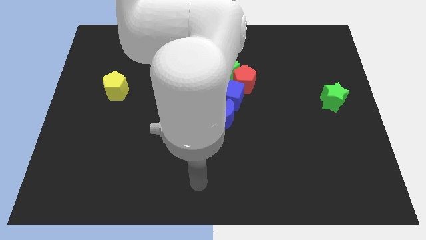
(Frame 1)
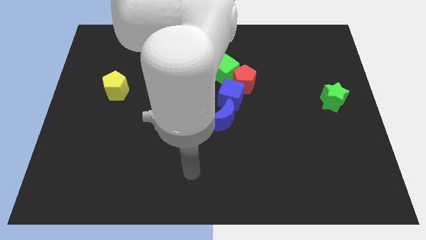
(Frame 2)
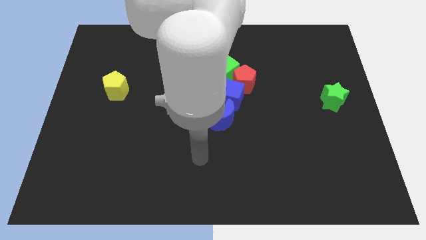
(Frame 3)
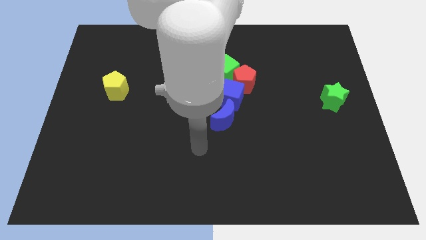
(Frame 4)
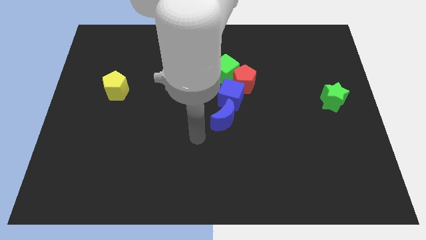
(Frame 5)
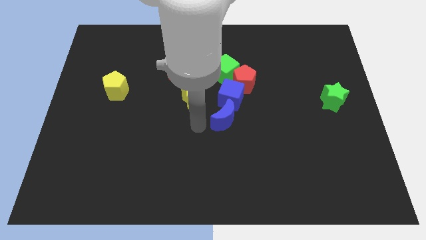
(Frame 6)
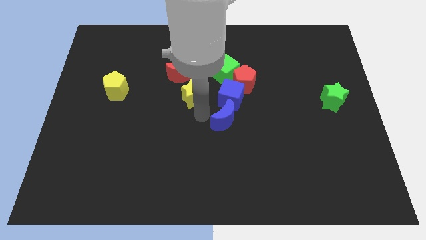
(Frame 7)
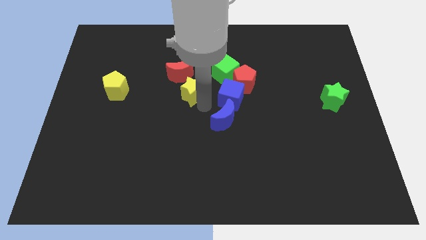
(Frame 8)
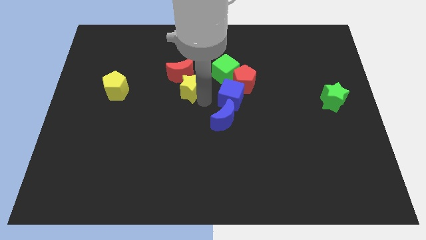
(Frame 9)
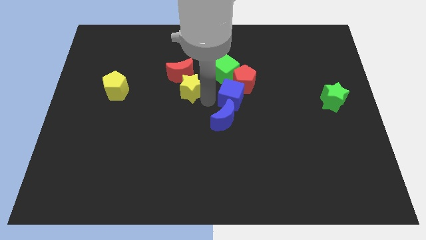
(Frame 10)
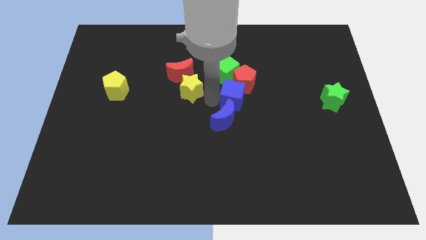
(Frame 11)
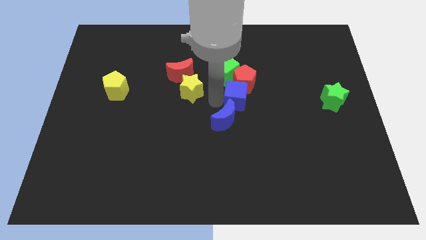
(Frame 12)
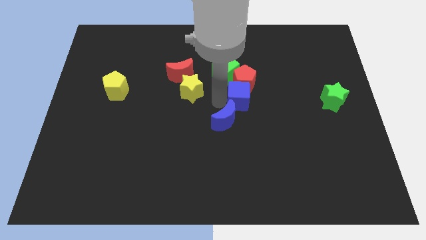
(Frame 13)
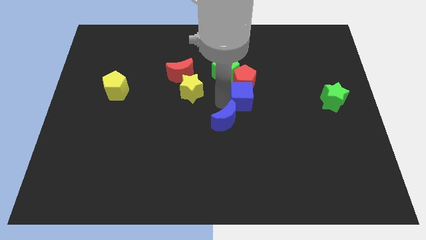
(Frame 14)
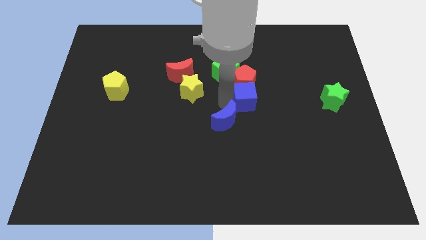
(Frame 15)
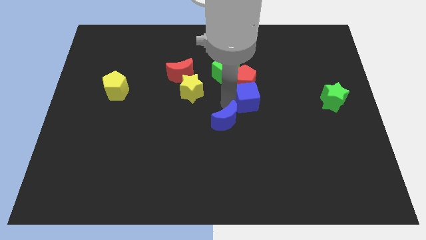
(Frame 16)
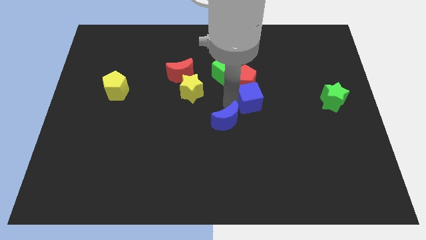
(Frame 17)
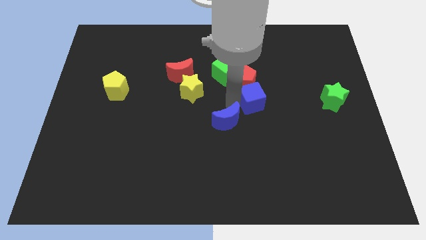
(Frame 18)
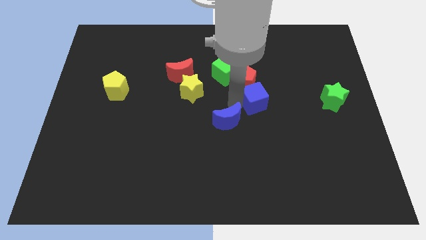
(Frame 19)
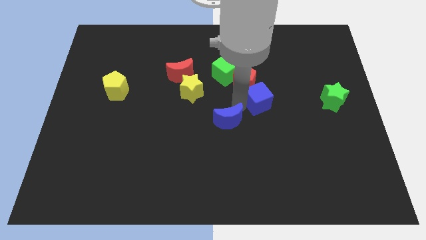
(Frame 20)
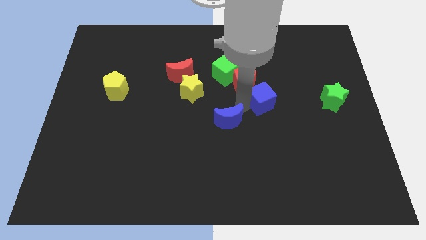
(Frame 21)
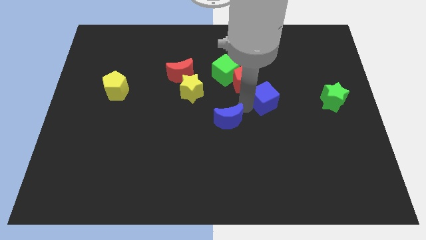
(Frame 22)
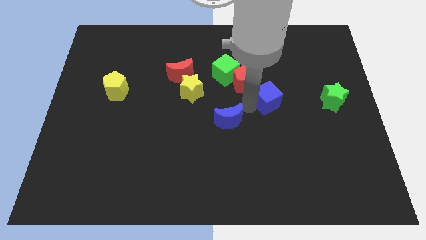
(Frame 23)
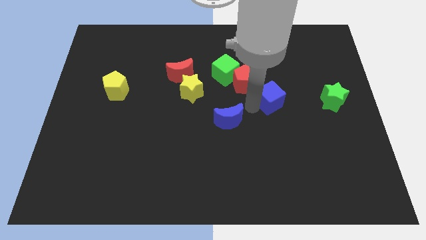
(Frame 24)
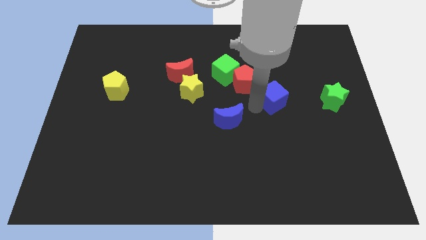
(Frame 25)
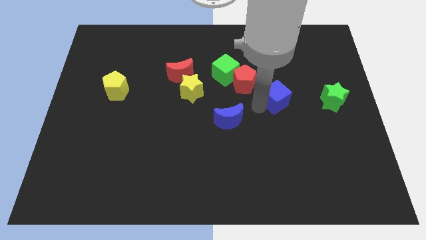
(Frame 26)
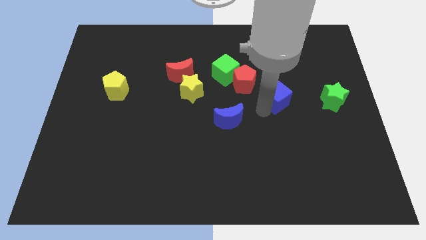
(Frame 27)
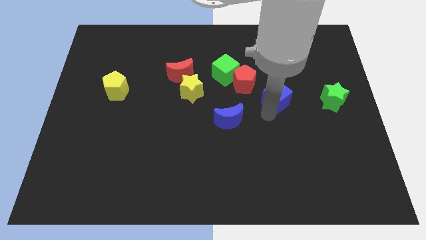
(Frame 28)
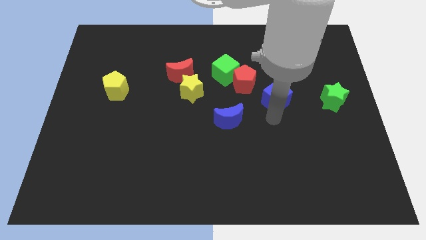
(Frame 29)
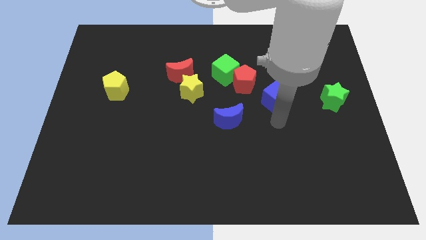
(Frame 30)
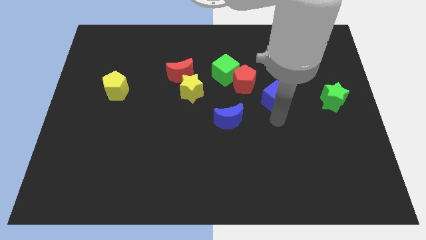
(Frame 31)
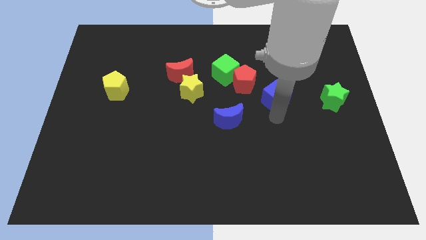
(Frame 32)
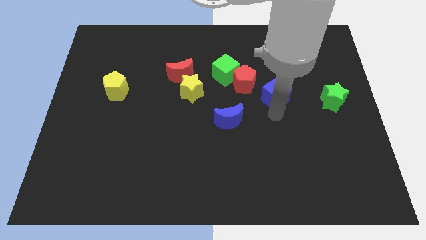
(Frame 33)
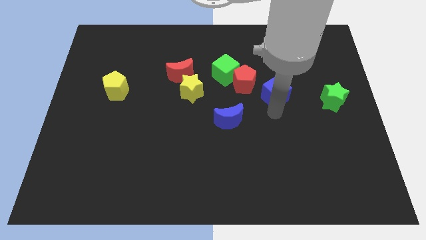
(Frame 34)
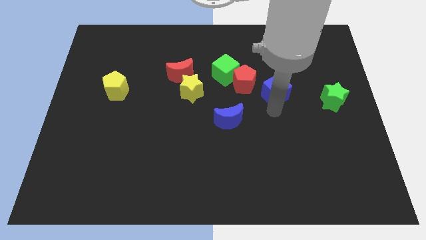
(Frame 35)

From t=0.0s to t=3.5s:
slide the blue cube somewhat upwards and right

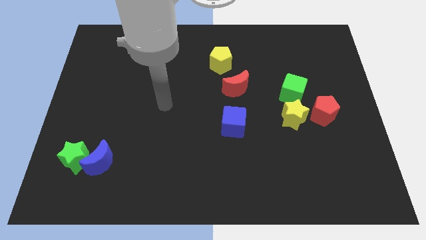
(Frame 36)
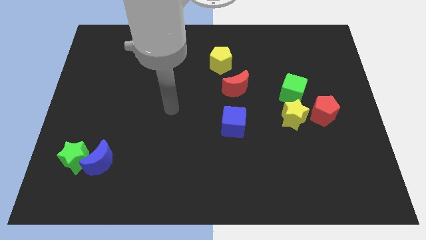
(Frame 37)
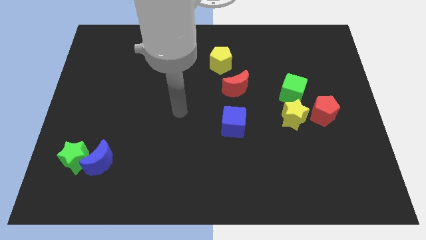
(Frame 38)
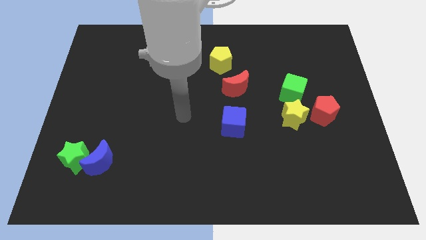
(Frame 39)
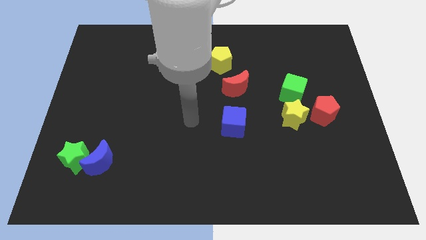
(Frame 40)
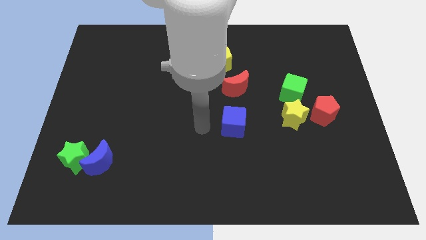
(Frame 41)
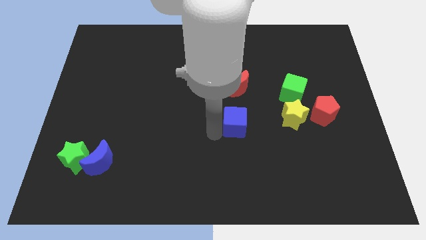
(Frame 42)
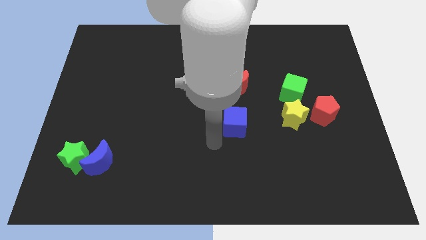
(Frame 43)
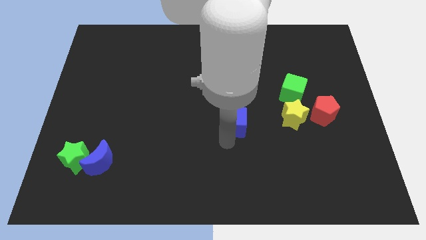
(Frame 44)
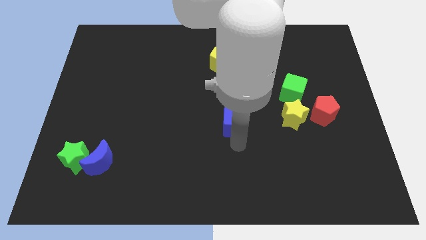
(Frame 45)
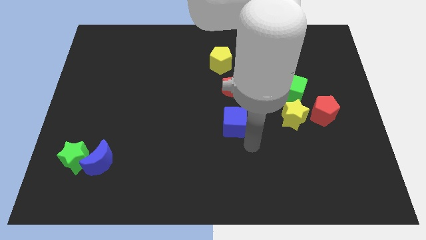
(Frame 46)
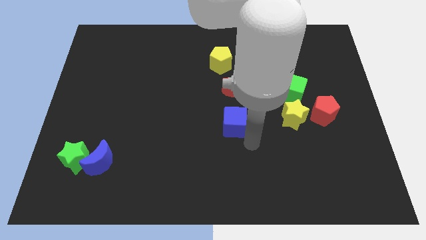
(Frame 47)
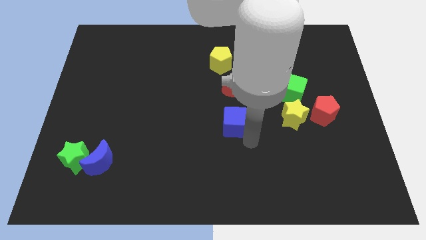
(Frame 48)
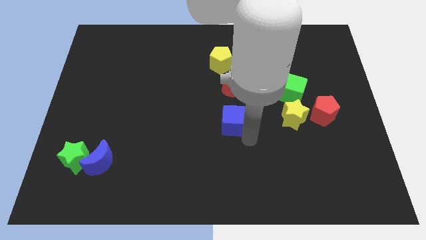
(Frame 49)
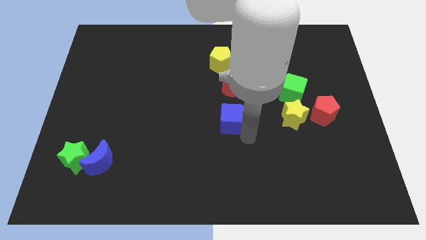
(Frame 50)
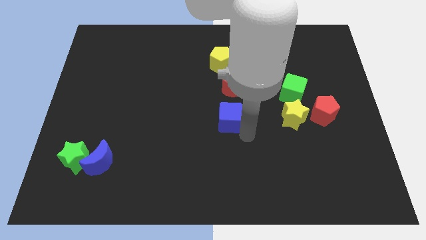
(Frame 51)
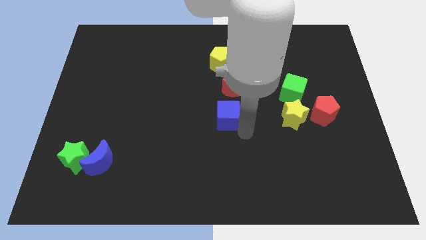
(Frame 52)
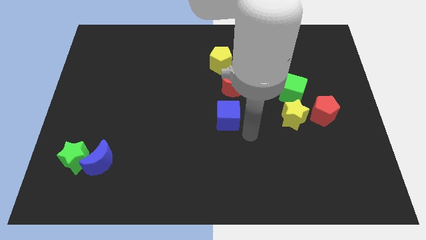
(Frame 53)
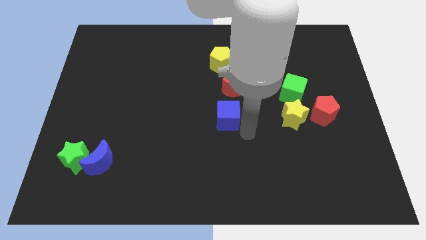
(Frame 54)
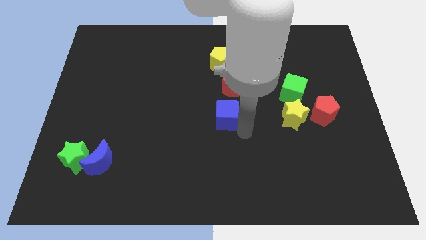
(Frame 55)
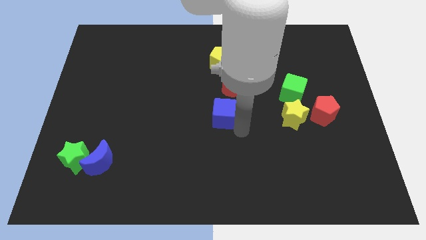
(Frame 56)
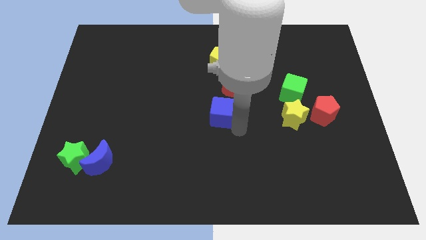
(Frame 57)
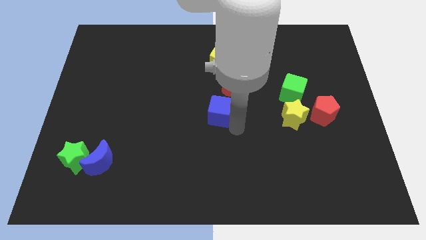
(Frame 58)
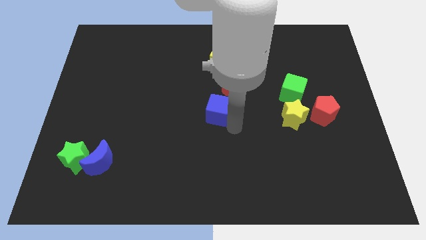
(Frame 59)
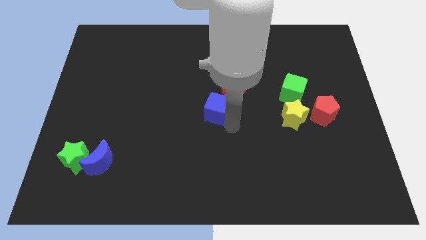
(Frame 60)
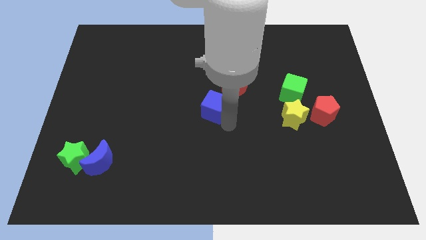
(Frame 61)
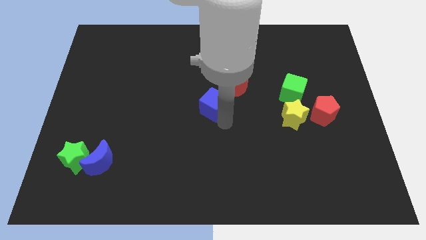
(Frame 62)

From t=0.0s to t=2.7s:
slightly slide the blue cube diagonally up and left

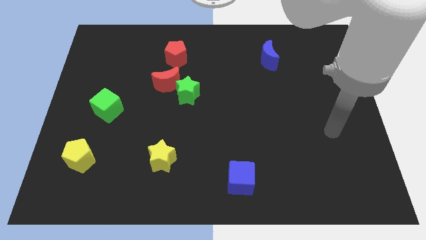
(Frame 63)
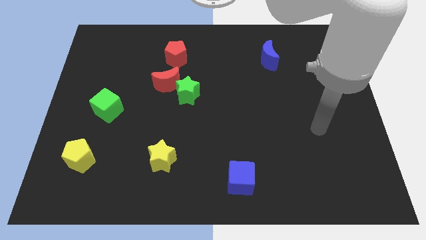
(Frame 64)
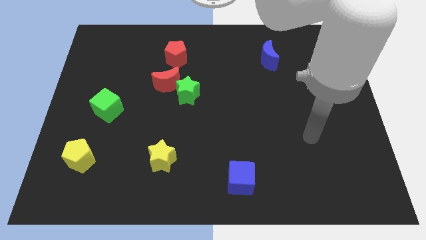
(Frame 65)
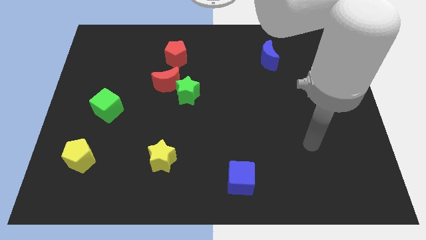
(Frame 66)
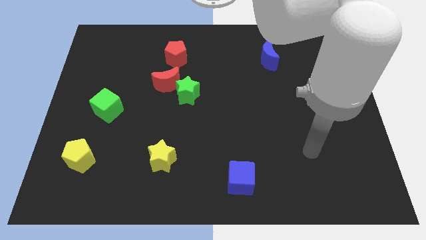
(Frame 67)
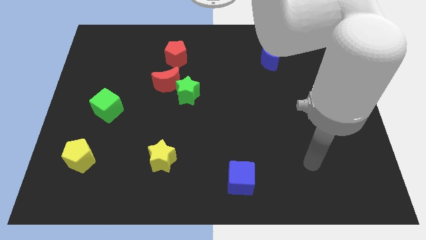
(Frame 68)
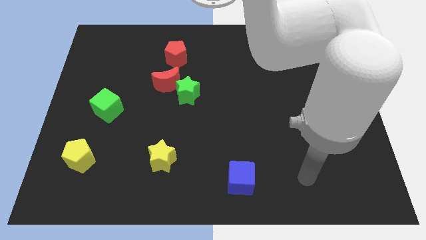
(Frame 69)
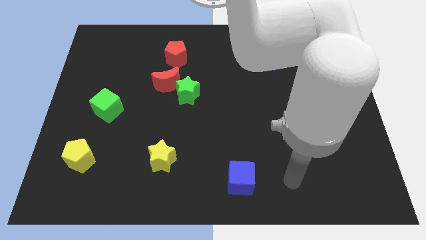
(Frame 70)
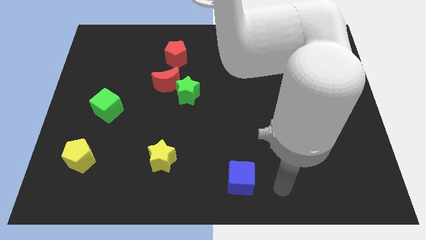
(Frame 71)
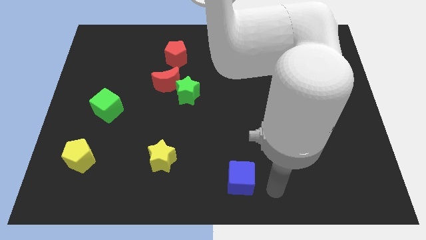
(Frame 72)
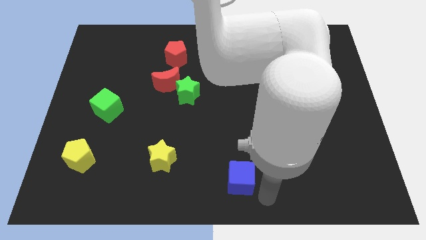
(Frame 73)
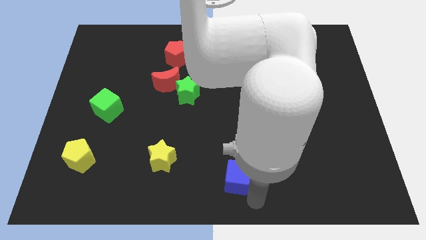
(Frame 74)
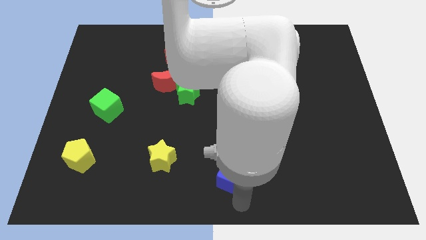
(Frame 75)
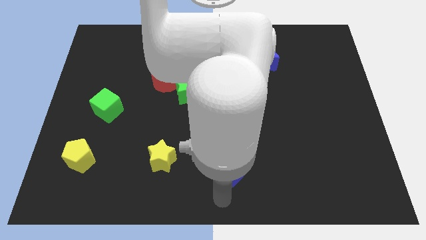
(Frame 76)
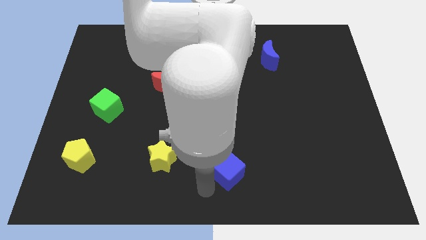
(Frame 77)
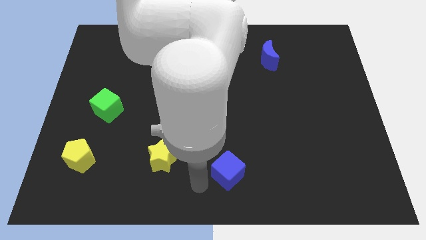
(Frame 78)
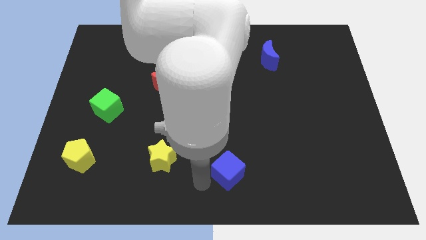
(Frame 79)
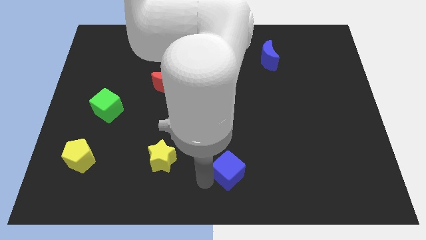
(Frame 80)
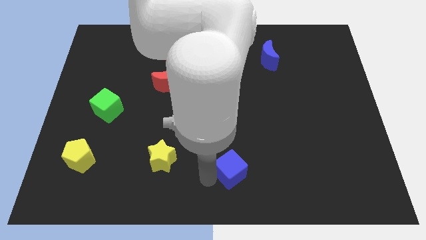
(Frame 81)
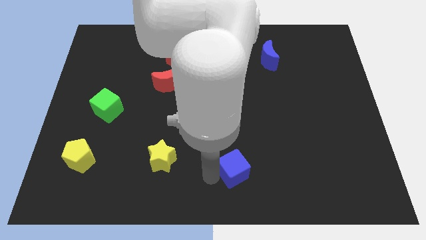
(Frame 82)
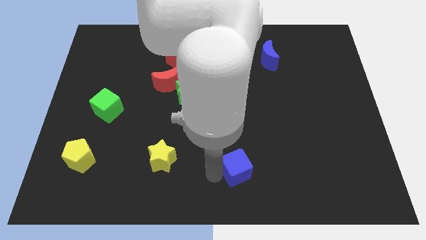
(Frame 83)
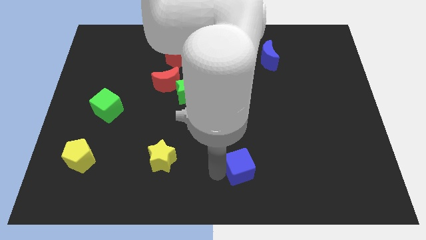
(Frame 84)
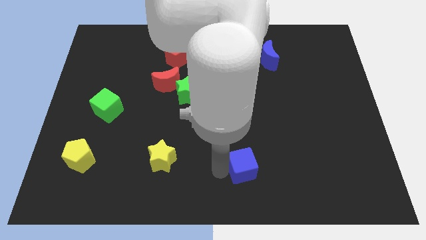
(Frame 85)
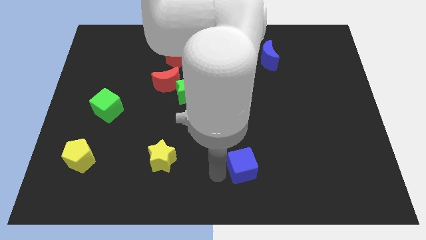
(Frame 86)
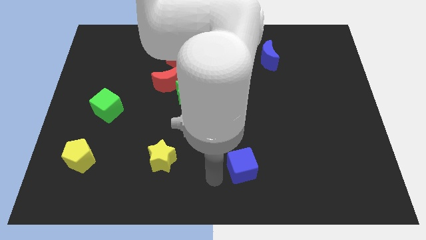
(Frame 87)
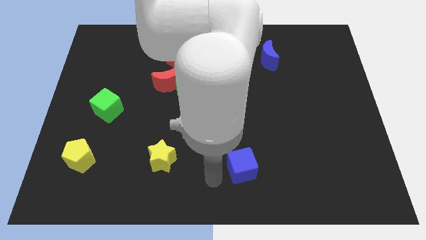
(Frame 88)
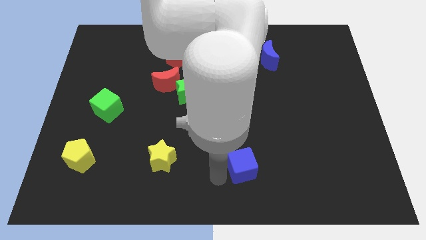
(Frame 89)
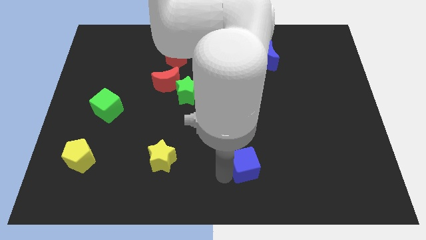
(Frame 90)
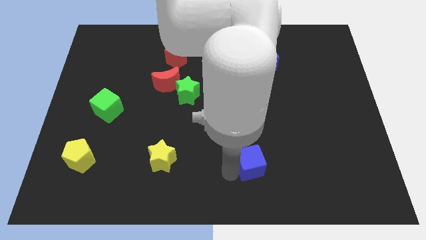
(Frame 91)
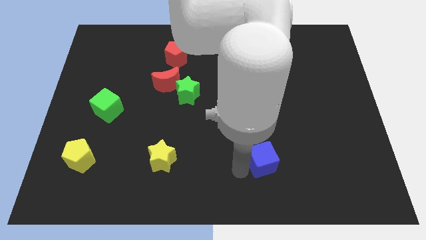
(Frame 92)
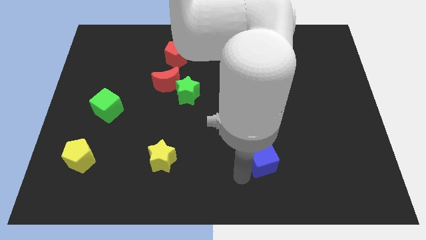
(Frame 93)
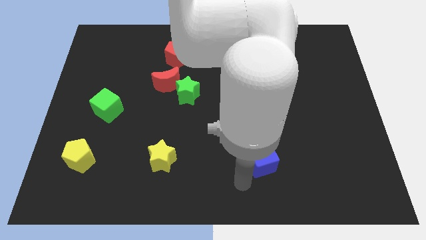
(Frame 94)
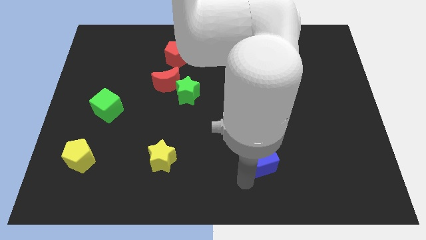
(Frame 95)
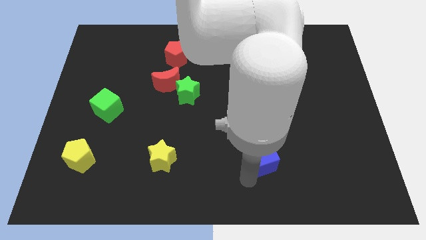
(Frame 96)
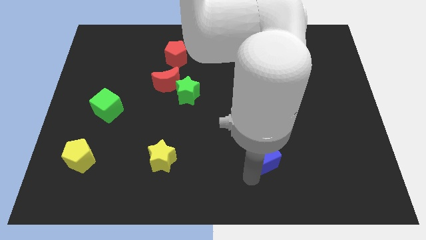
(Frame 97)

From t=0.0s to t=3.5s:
slightly push the blue cube diagonally up and to the right
